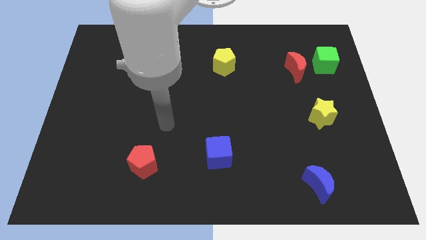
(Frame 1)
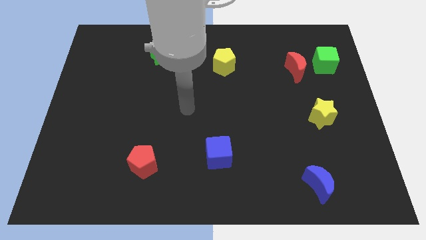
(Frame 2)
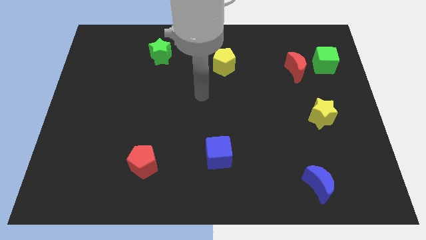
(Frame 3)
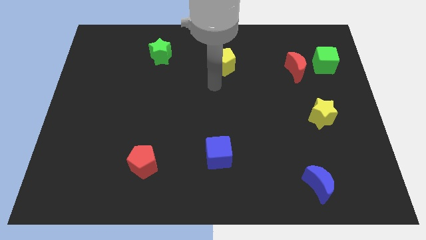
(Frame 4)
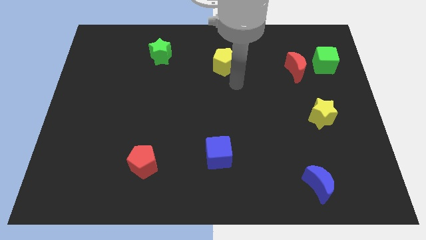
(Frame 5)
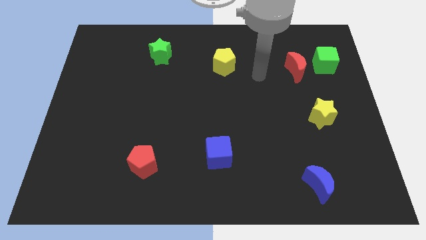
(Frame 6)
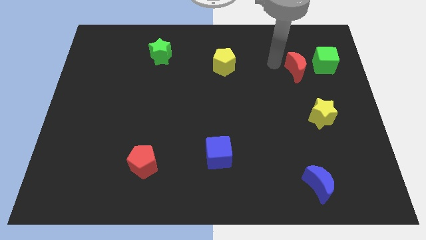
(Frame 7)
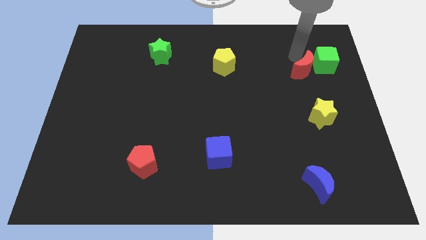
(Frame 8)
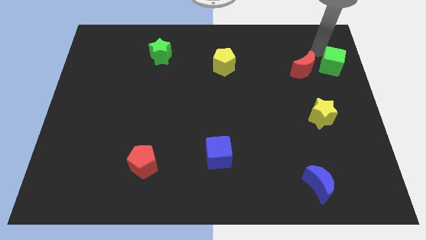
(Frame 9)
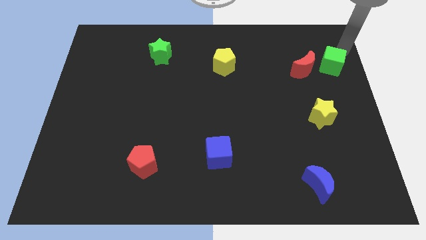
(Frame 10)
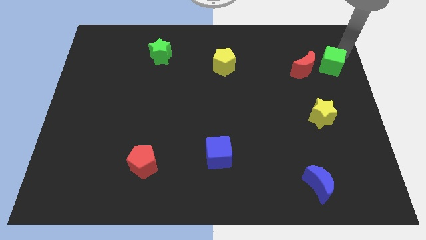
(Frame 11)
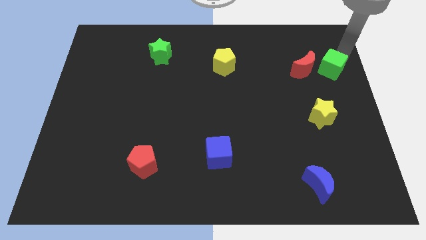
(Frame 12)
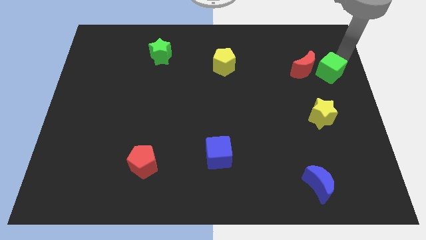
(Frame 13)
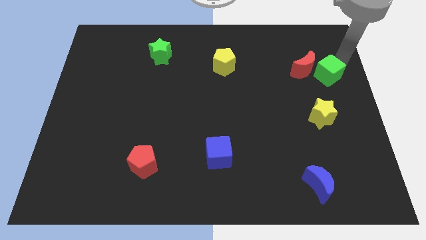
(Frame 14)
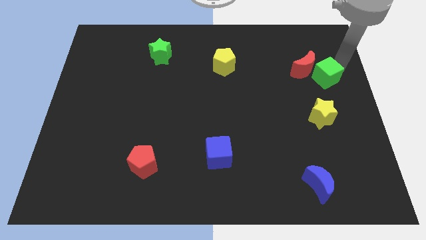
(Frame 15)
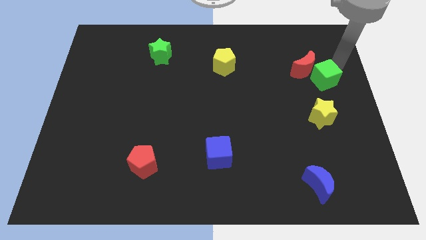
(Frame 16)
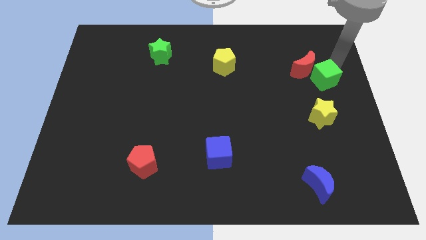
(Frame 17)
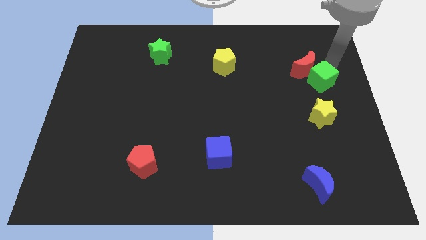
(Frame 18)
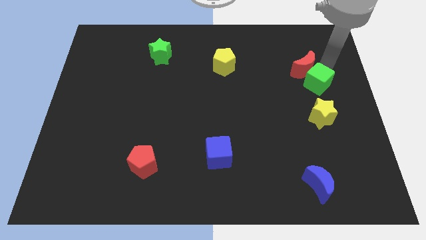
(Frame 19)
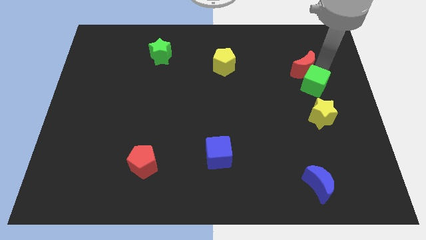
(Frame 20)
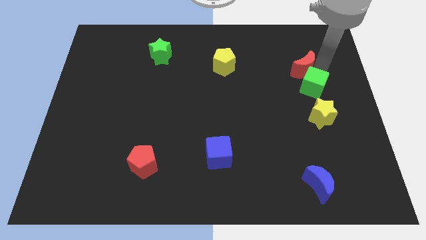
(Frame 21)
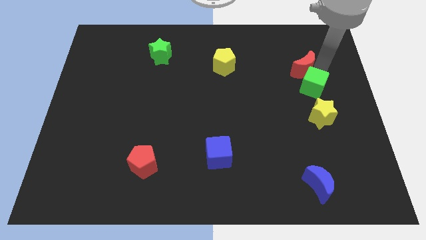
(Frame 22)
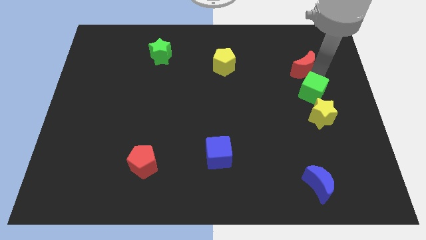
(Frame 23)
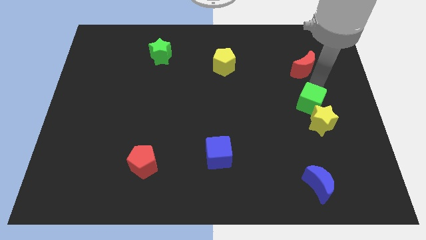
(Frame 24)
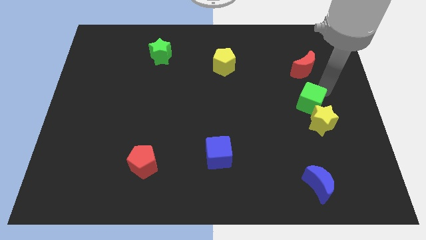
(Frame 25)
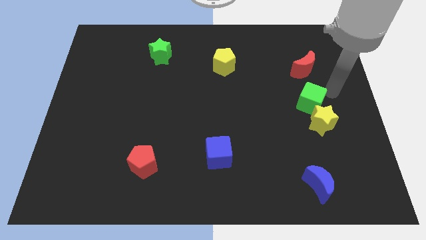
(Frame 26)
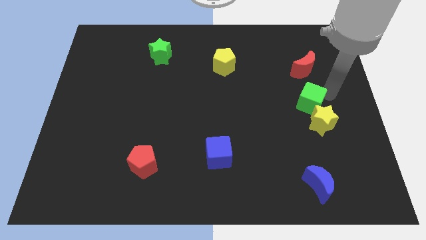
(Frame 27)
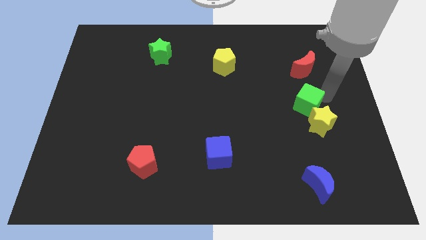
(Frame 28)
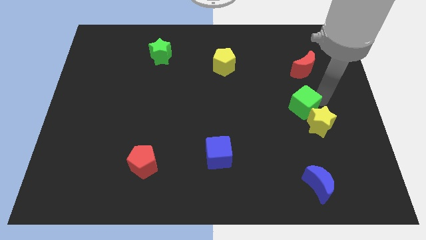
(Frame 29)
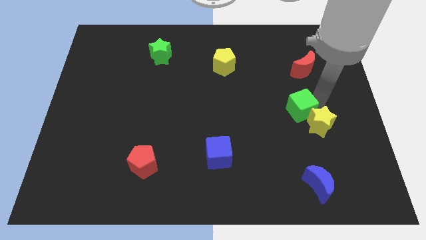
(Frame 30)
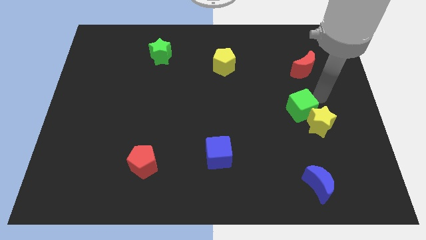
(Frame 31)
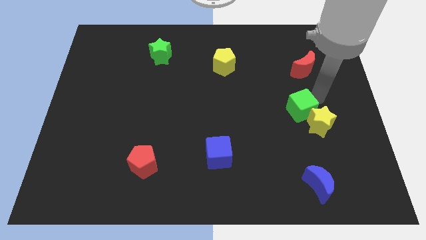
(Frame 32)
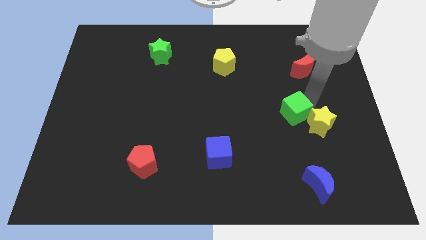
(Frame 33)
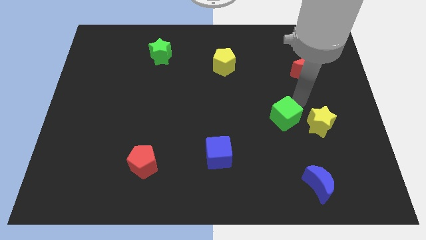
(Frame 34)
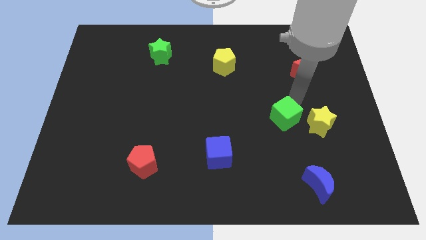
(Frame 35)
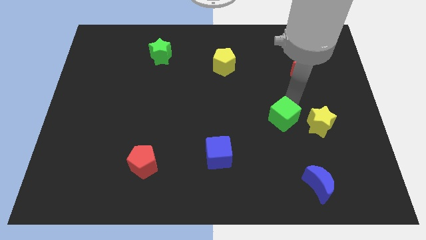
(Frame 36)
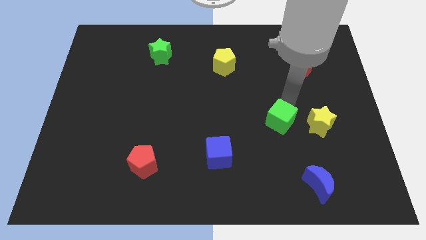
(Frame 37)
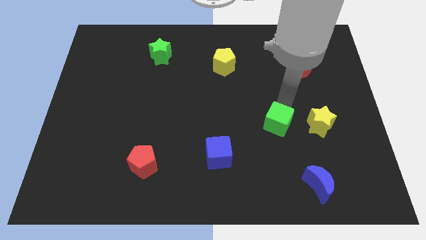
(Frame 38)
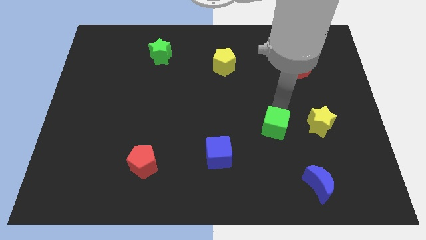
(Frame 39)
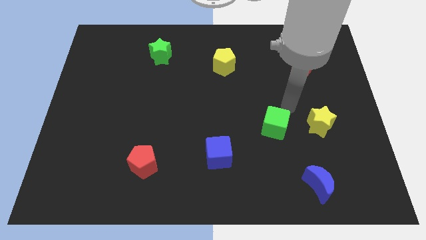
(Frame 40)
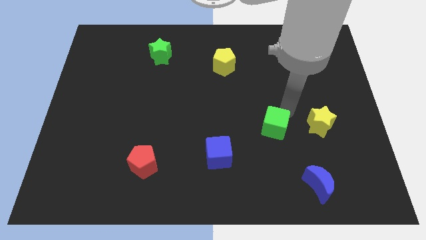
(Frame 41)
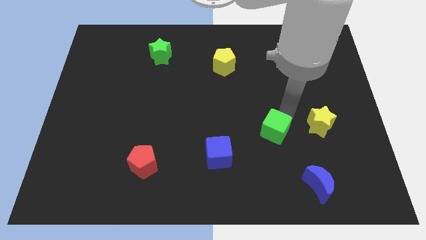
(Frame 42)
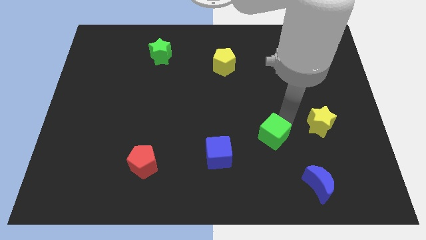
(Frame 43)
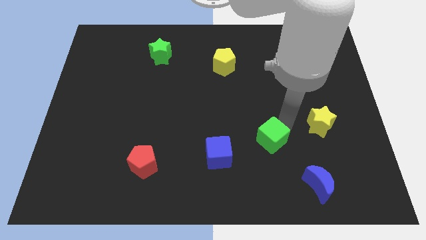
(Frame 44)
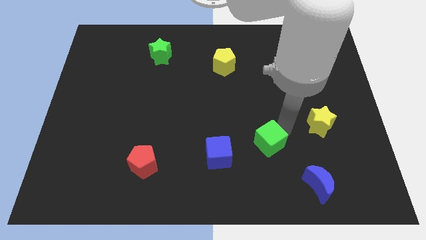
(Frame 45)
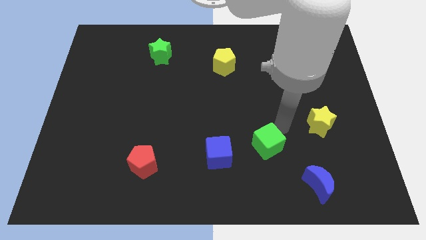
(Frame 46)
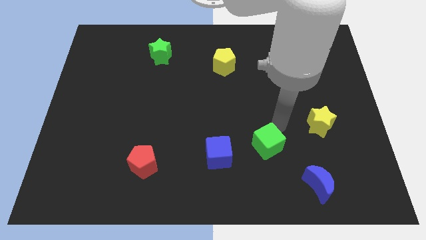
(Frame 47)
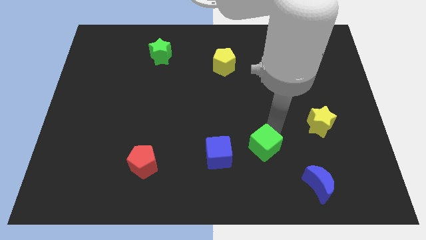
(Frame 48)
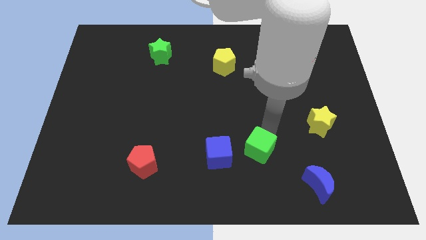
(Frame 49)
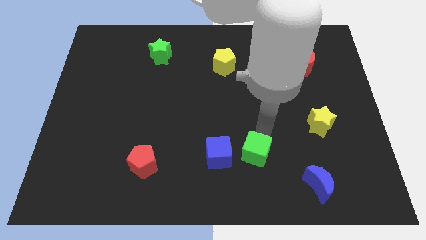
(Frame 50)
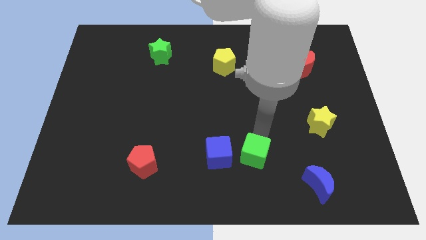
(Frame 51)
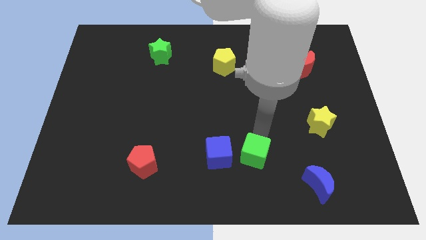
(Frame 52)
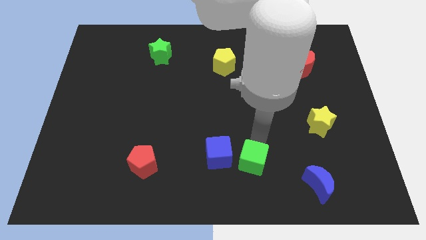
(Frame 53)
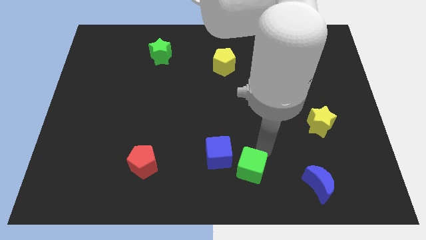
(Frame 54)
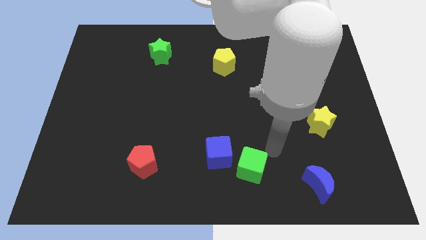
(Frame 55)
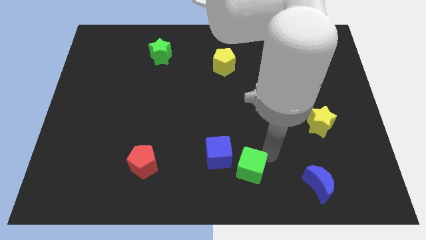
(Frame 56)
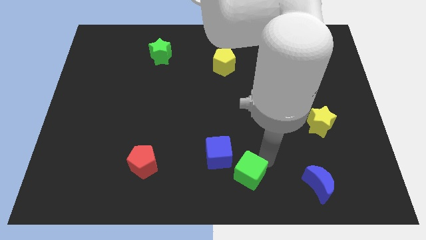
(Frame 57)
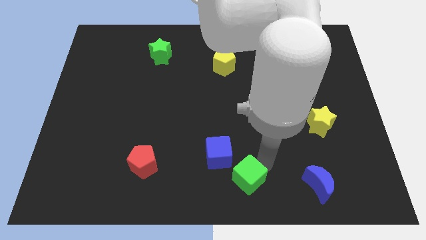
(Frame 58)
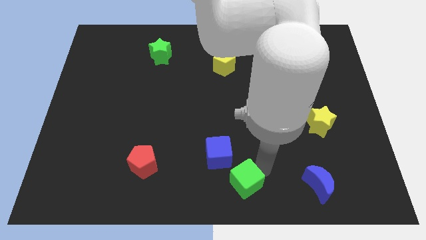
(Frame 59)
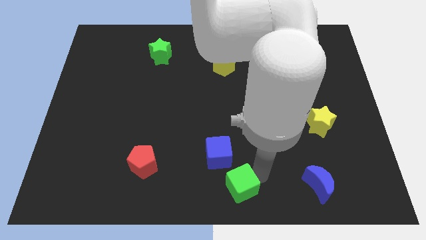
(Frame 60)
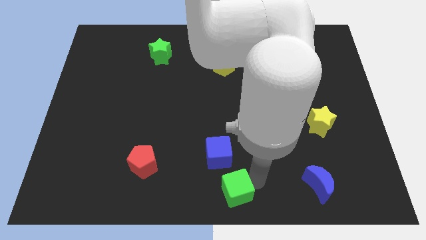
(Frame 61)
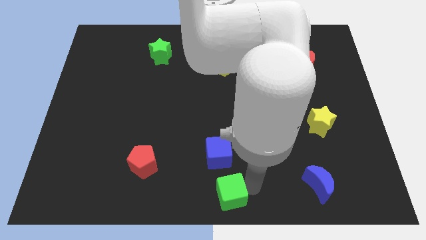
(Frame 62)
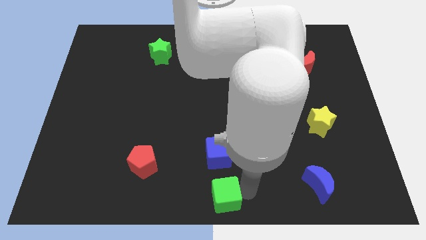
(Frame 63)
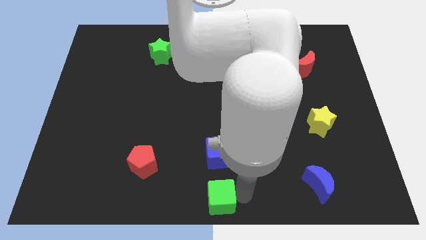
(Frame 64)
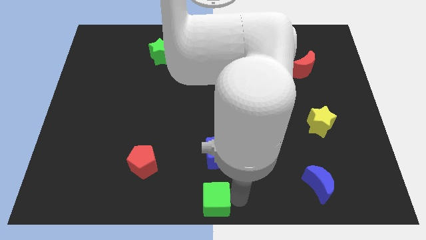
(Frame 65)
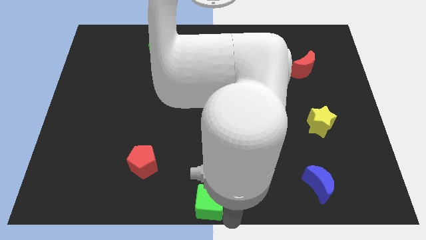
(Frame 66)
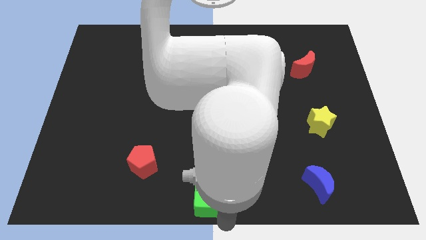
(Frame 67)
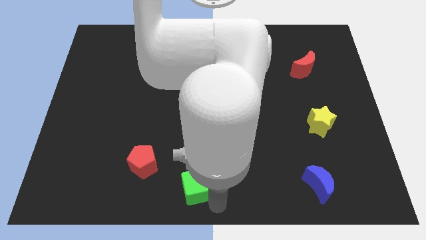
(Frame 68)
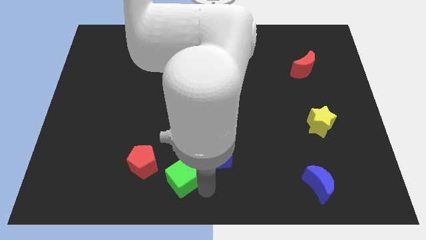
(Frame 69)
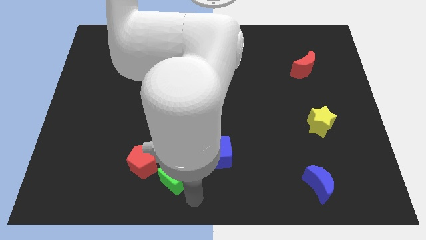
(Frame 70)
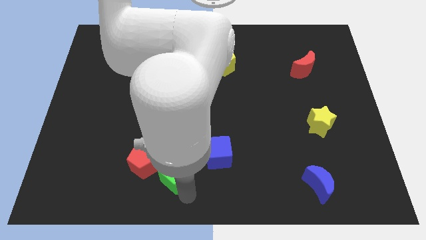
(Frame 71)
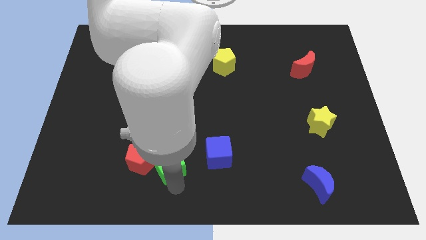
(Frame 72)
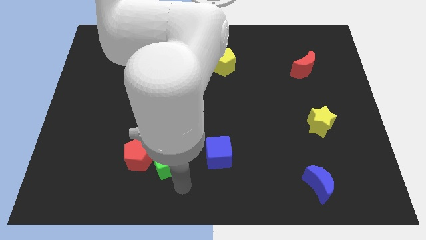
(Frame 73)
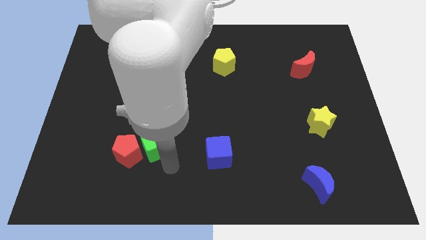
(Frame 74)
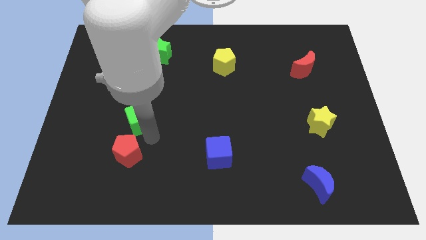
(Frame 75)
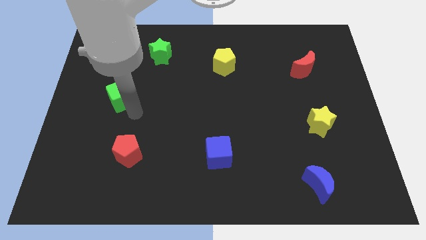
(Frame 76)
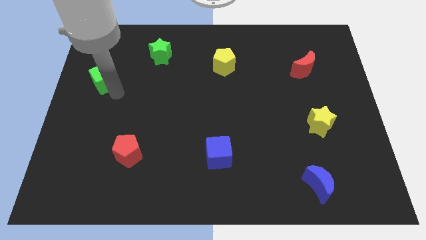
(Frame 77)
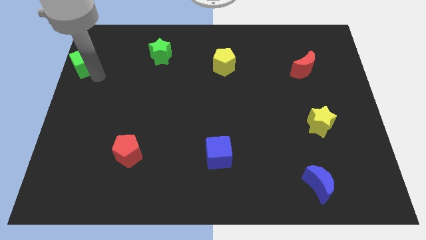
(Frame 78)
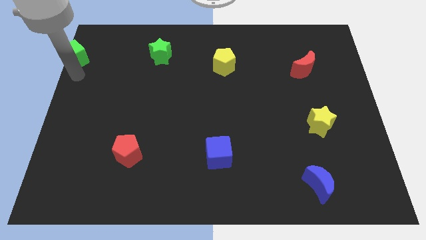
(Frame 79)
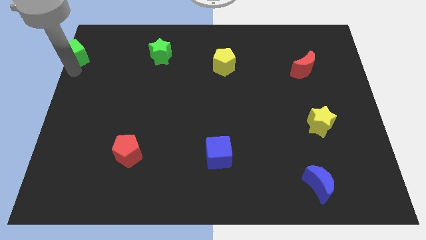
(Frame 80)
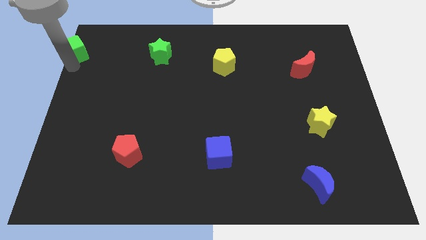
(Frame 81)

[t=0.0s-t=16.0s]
move the green cube to the top left
